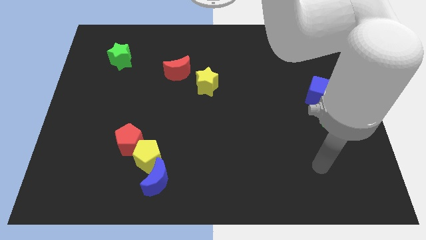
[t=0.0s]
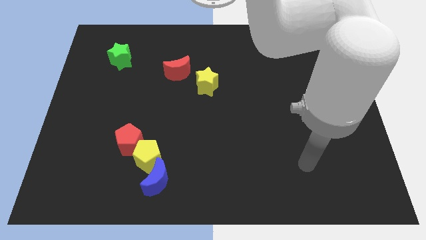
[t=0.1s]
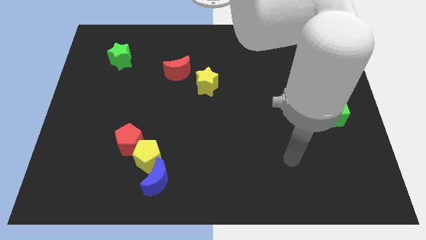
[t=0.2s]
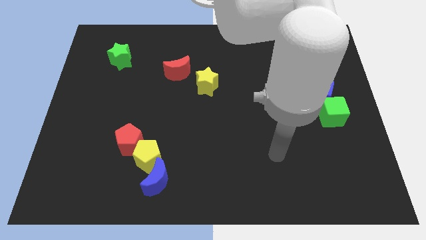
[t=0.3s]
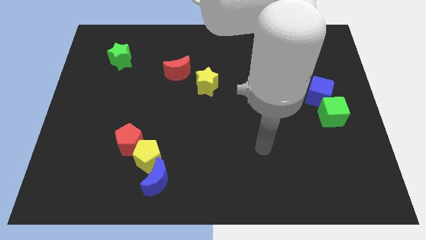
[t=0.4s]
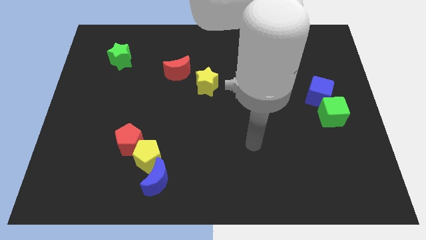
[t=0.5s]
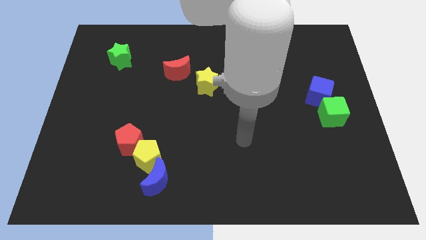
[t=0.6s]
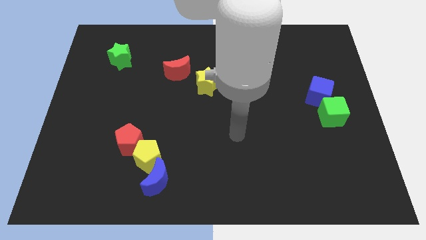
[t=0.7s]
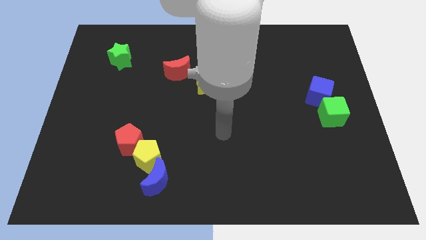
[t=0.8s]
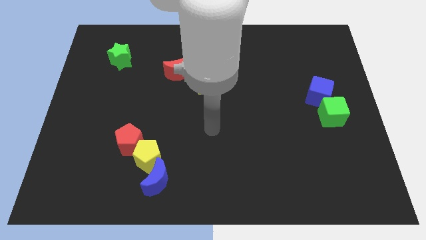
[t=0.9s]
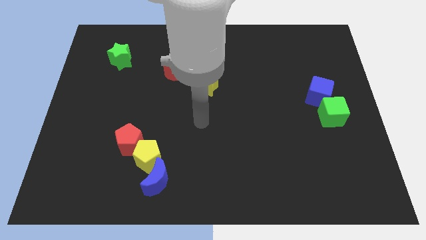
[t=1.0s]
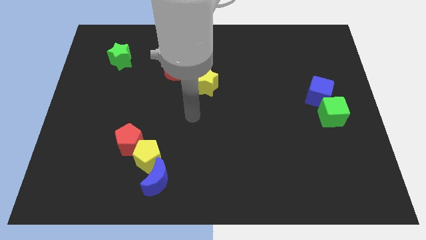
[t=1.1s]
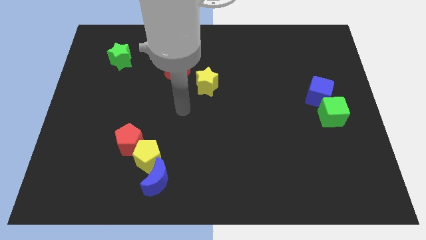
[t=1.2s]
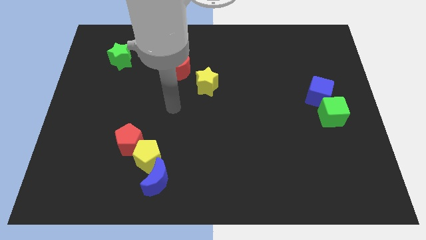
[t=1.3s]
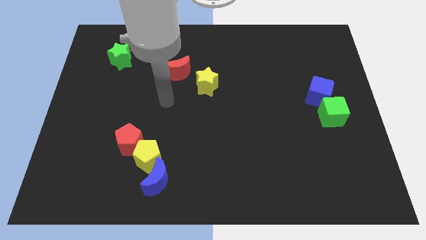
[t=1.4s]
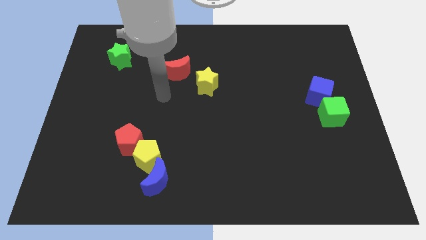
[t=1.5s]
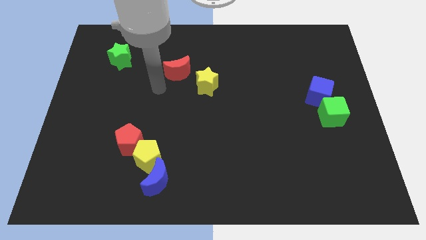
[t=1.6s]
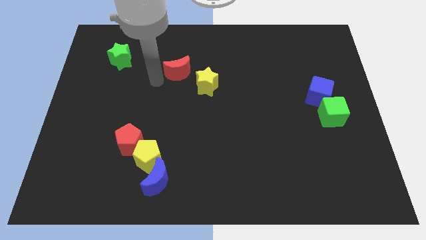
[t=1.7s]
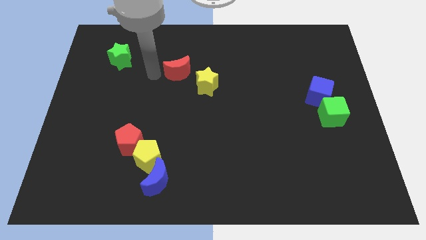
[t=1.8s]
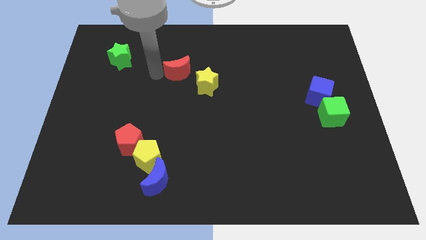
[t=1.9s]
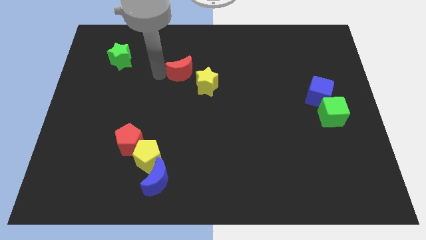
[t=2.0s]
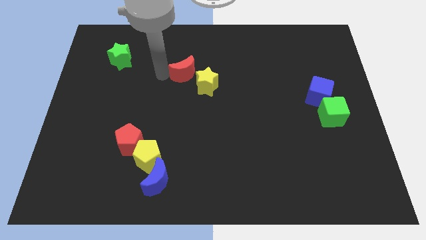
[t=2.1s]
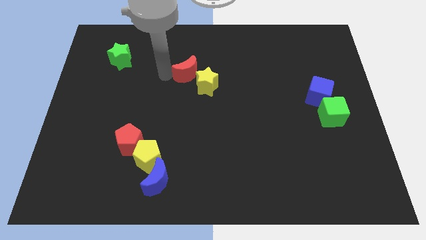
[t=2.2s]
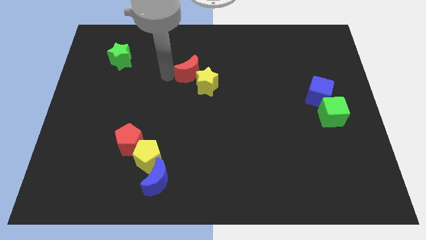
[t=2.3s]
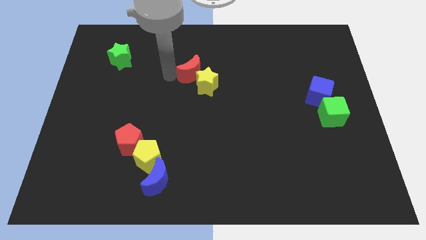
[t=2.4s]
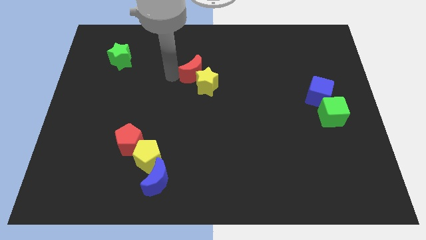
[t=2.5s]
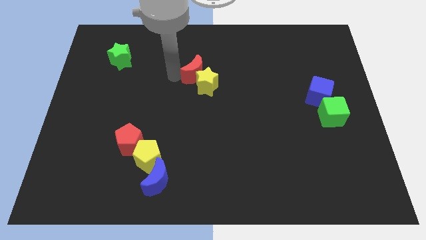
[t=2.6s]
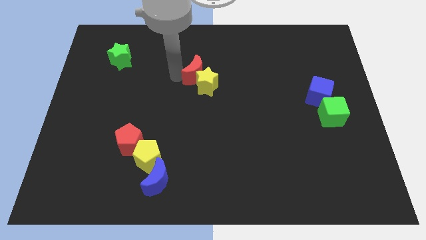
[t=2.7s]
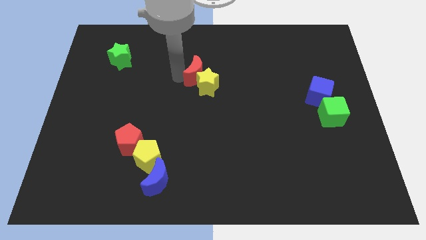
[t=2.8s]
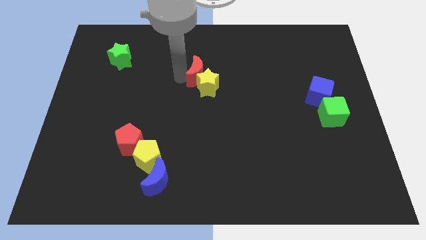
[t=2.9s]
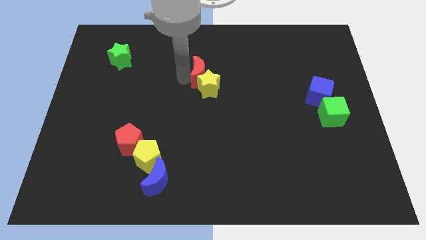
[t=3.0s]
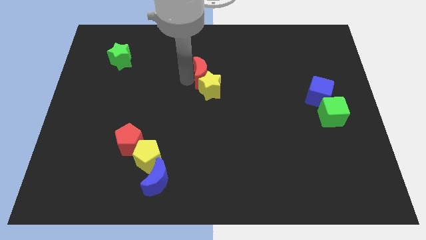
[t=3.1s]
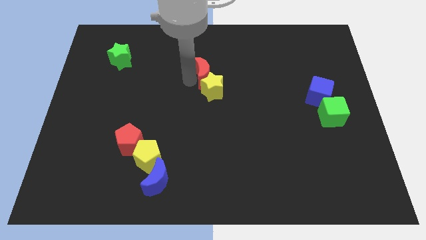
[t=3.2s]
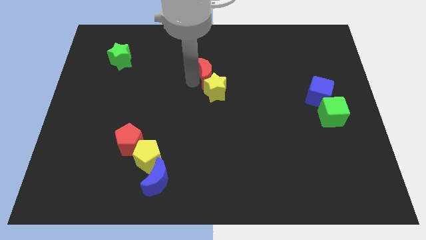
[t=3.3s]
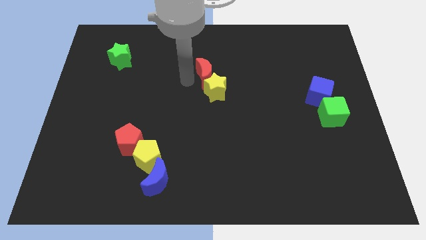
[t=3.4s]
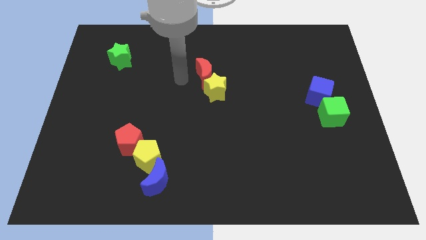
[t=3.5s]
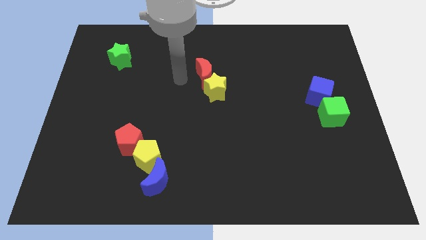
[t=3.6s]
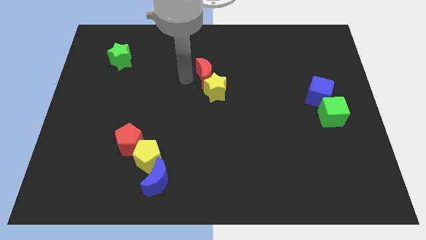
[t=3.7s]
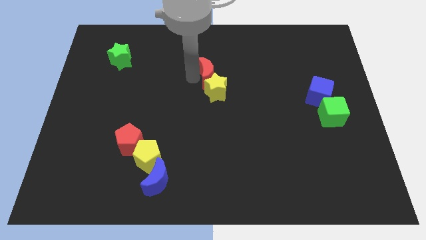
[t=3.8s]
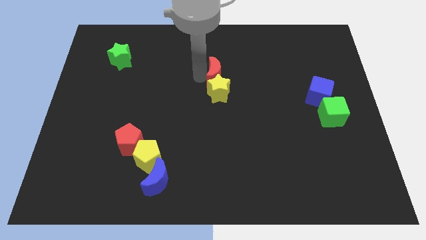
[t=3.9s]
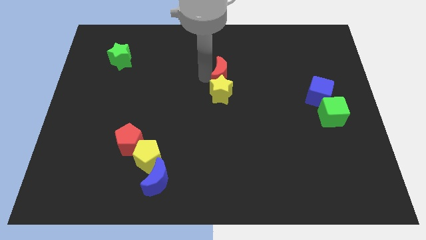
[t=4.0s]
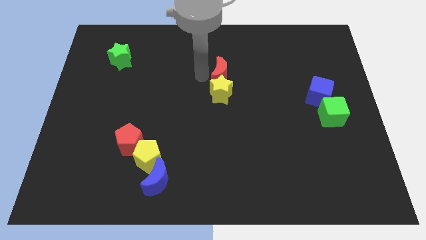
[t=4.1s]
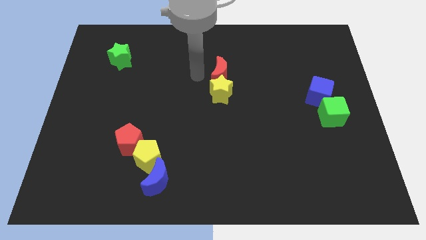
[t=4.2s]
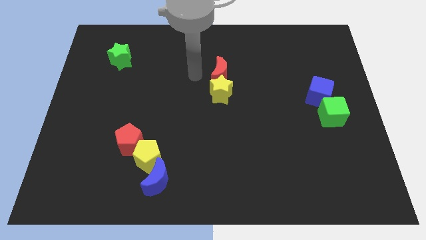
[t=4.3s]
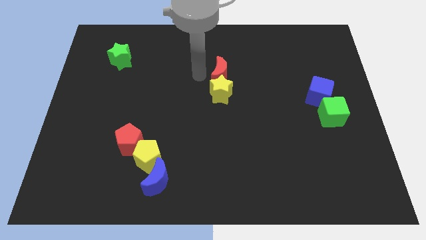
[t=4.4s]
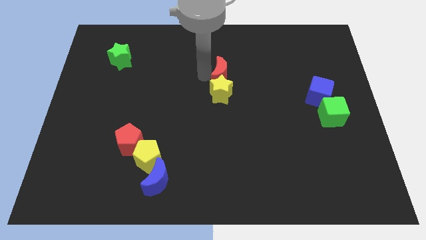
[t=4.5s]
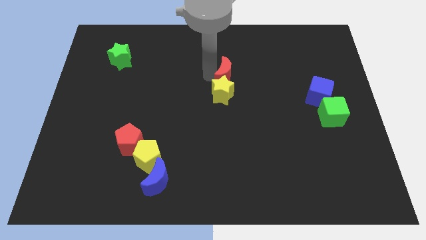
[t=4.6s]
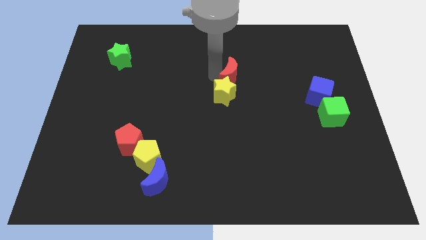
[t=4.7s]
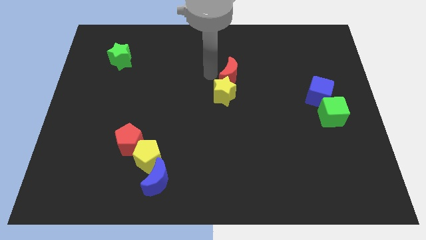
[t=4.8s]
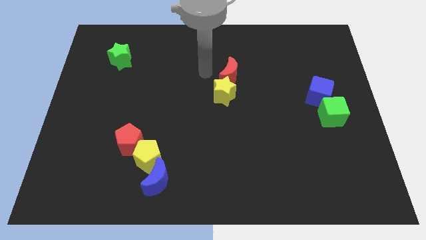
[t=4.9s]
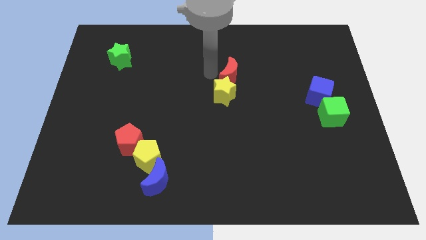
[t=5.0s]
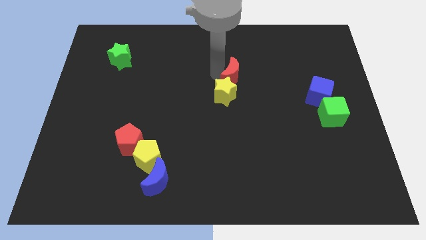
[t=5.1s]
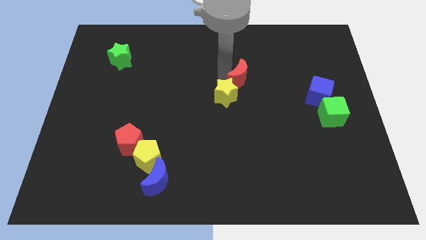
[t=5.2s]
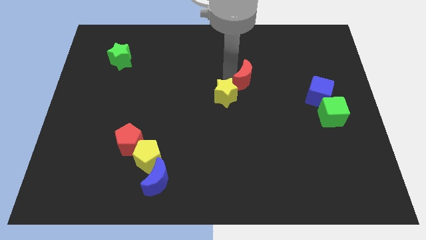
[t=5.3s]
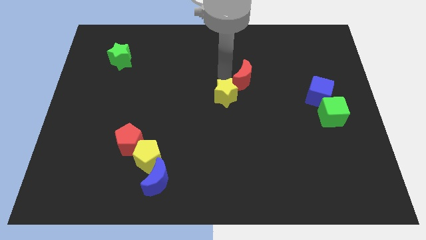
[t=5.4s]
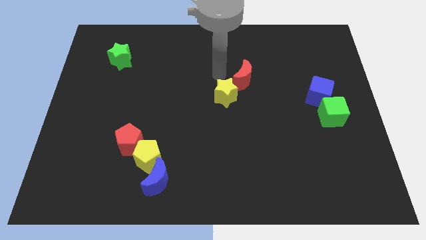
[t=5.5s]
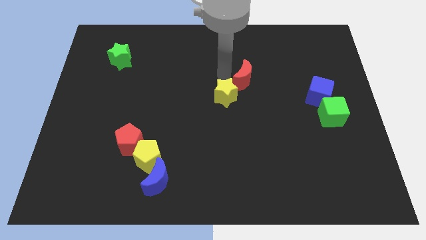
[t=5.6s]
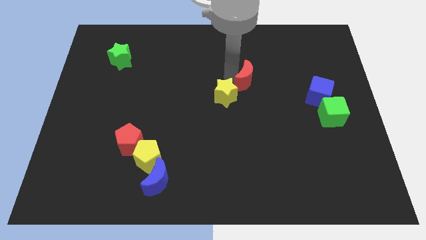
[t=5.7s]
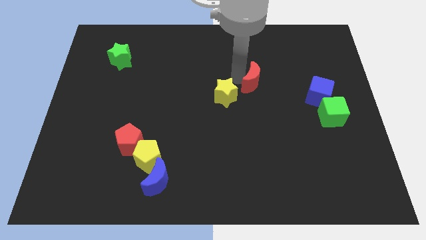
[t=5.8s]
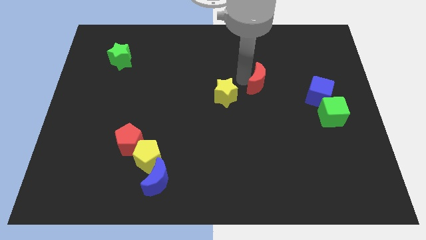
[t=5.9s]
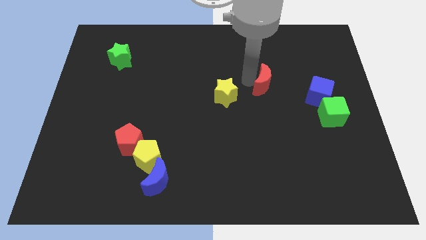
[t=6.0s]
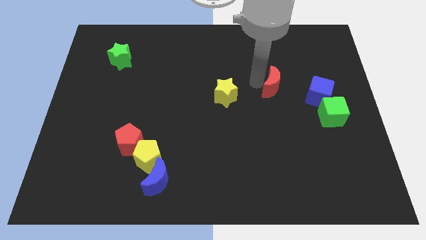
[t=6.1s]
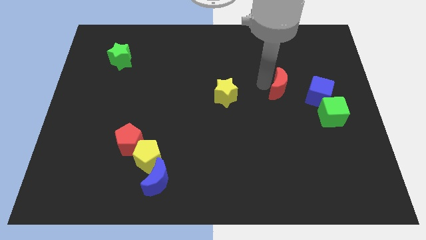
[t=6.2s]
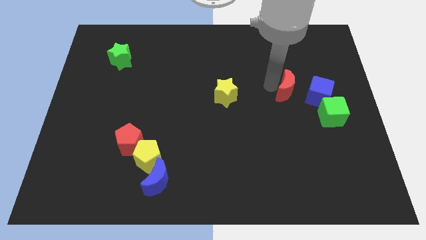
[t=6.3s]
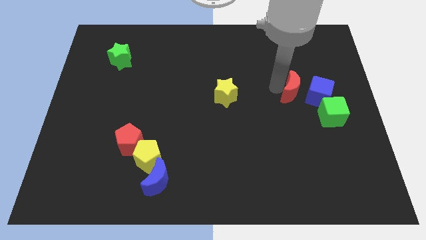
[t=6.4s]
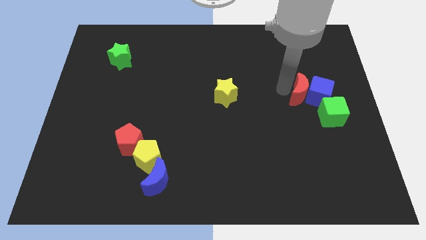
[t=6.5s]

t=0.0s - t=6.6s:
put the red moon towards the blue cube
